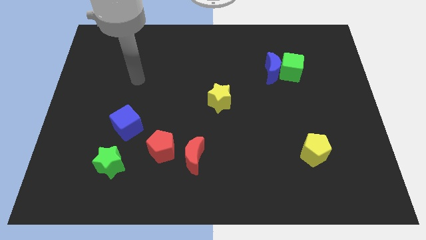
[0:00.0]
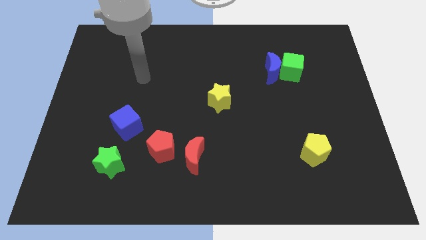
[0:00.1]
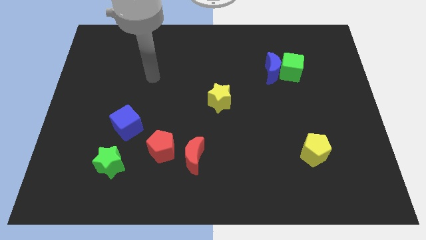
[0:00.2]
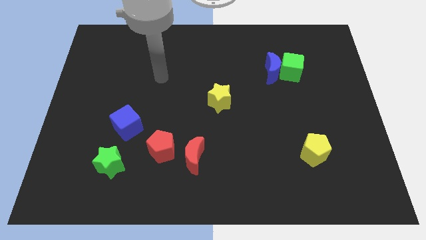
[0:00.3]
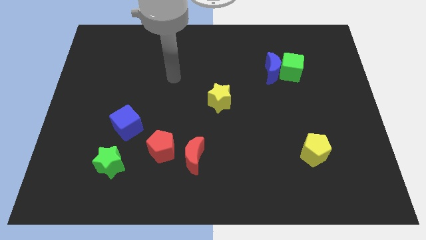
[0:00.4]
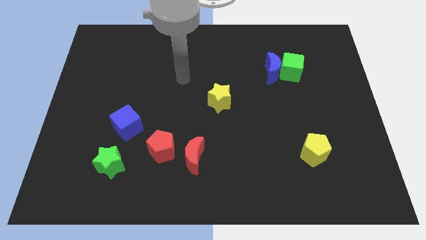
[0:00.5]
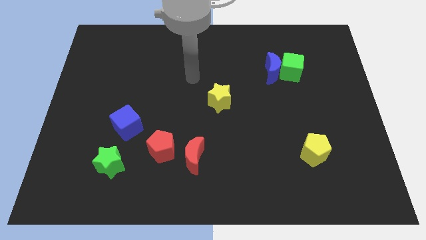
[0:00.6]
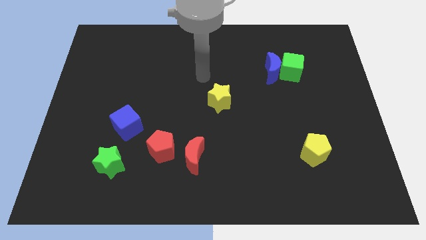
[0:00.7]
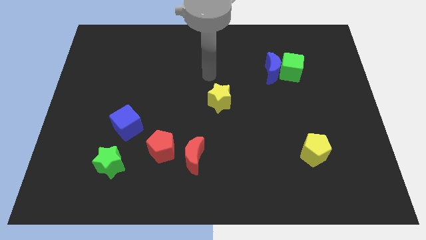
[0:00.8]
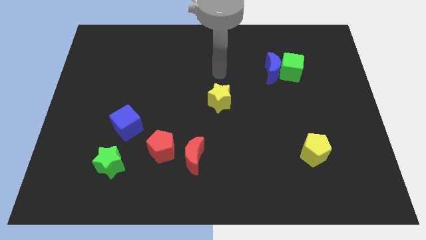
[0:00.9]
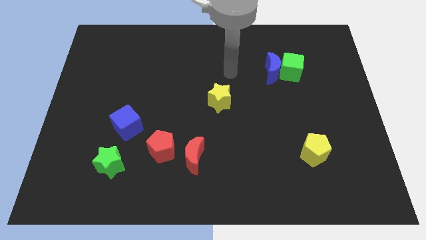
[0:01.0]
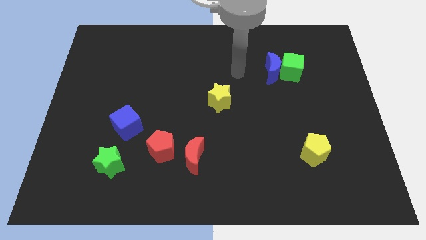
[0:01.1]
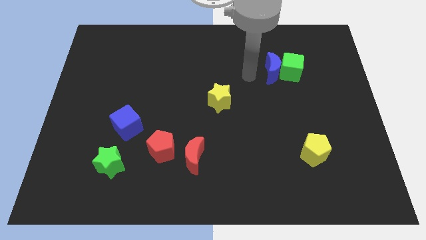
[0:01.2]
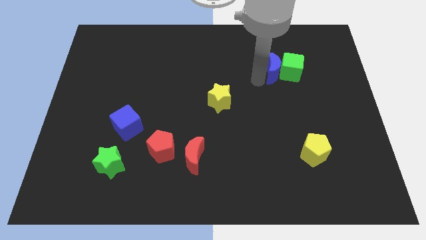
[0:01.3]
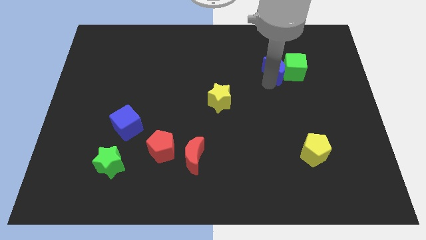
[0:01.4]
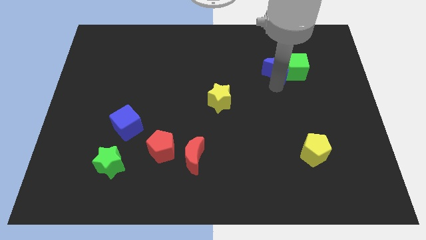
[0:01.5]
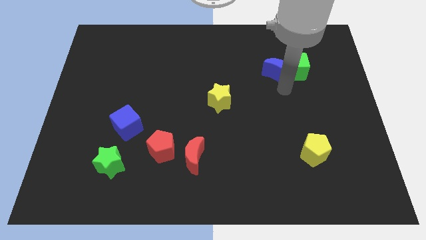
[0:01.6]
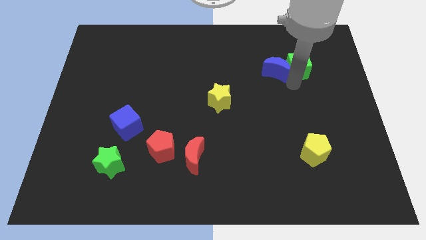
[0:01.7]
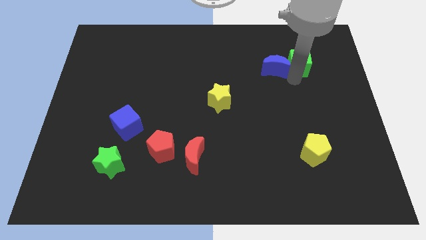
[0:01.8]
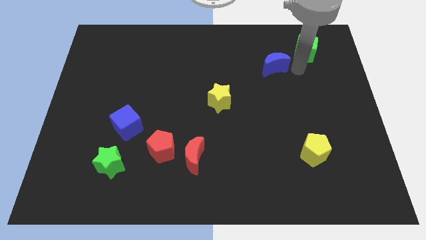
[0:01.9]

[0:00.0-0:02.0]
pull the blue moon apart from the green cube

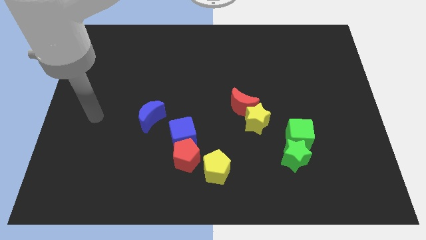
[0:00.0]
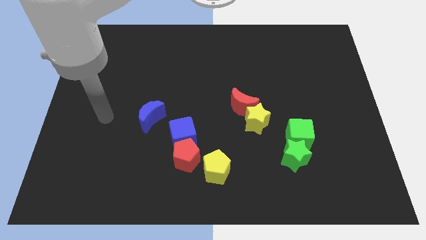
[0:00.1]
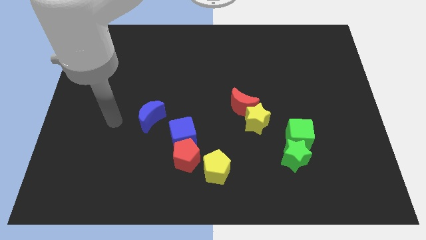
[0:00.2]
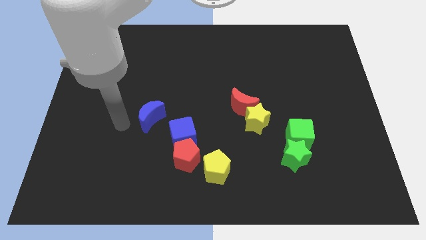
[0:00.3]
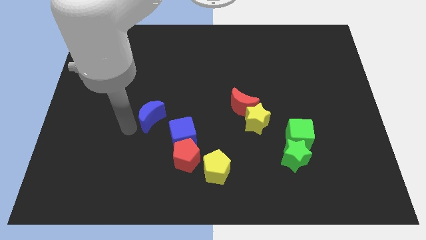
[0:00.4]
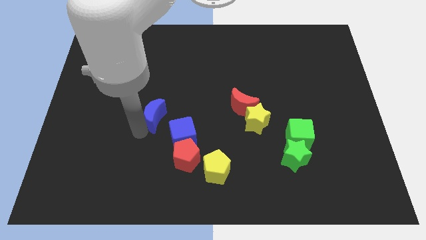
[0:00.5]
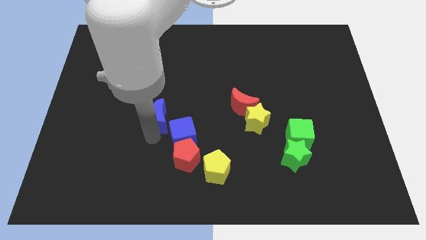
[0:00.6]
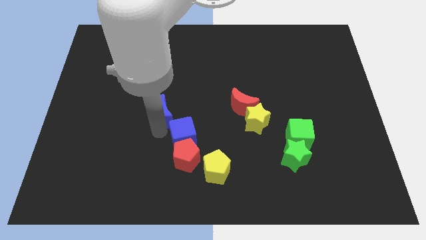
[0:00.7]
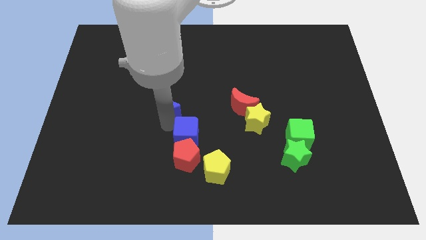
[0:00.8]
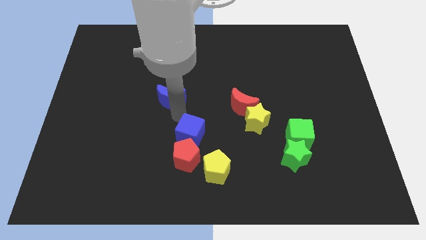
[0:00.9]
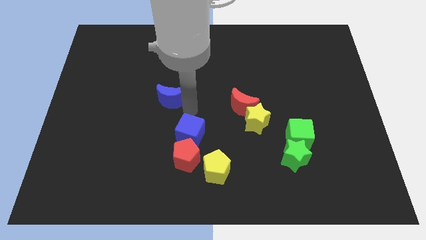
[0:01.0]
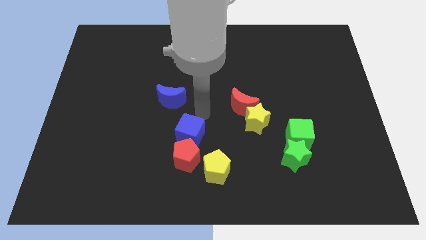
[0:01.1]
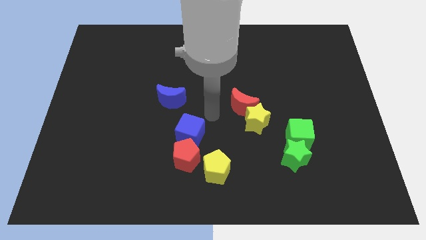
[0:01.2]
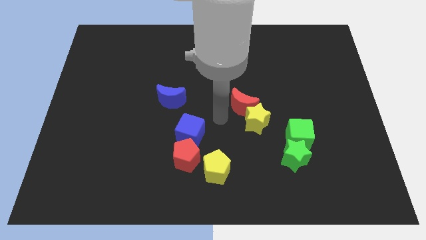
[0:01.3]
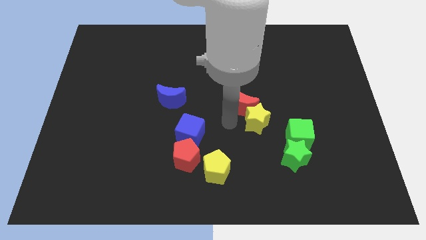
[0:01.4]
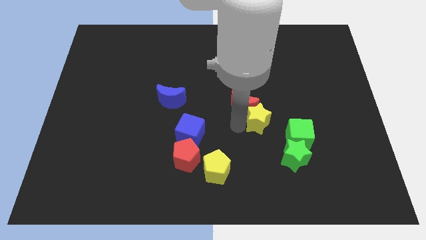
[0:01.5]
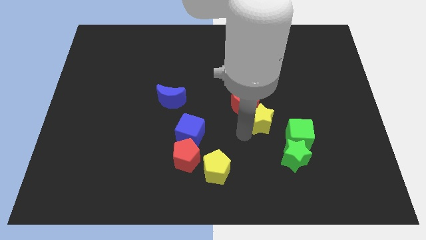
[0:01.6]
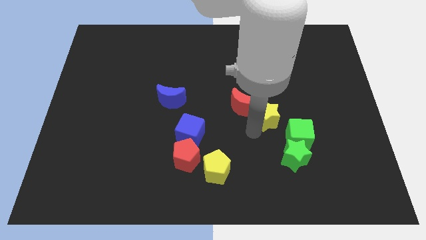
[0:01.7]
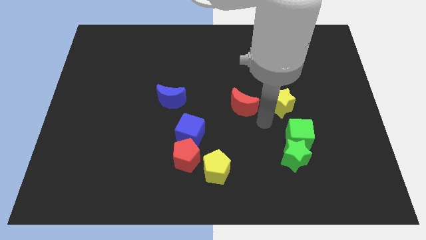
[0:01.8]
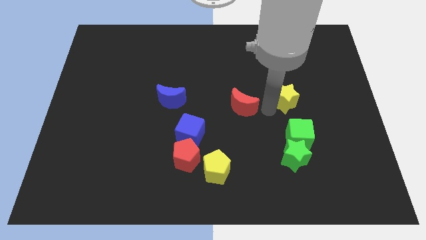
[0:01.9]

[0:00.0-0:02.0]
pull the red moon apart from the yellow star

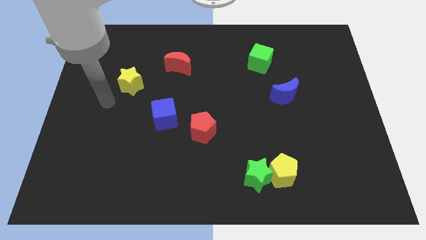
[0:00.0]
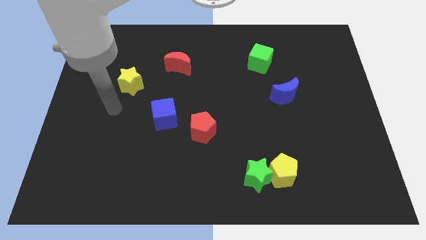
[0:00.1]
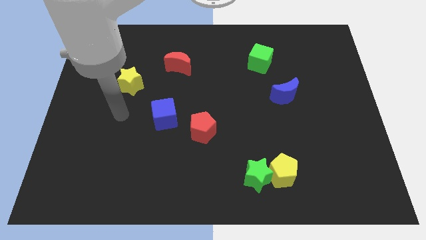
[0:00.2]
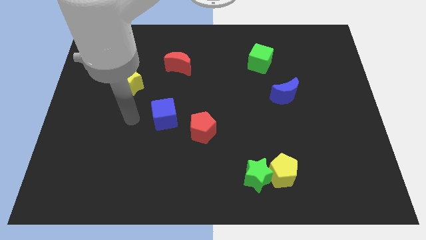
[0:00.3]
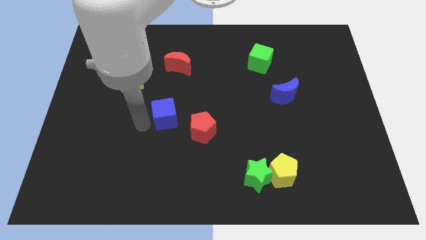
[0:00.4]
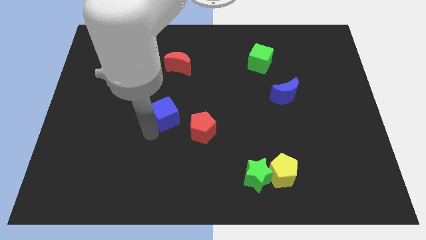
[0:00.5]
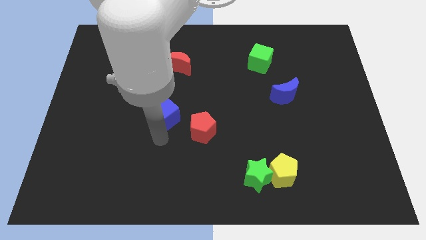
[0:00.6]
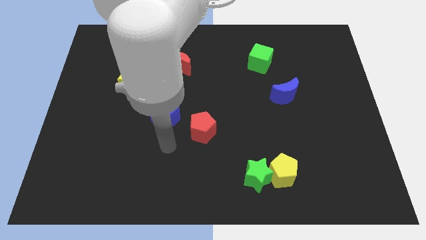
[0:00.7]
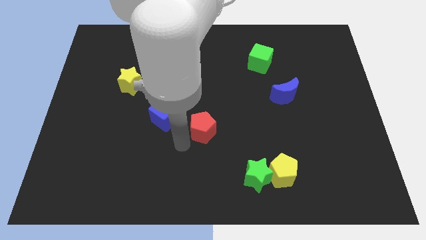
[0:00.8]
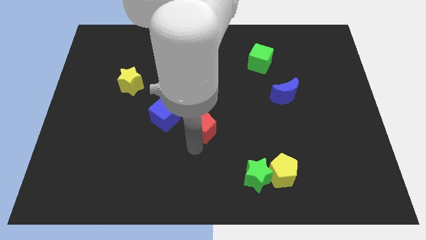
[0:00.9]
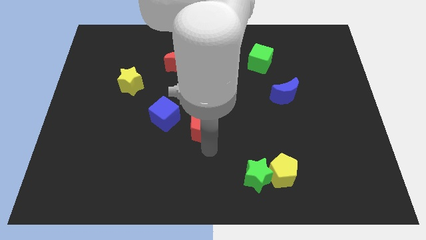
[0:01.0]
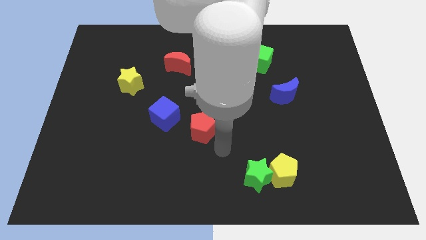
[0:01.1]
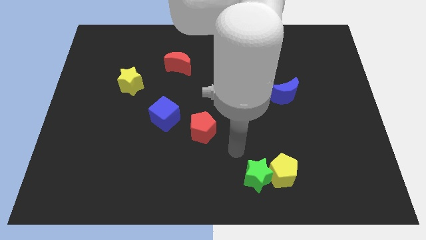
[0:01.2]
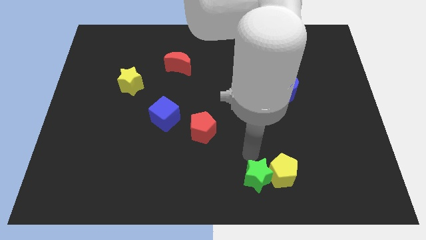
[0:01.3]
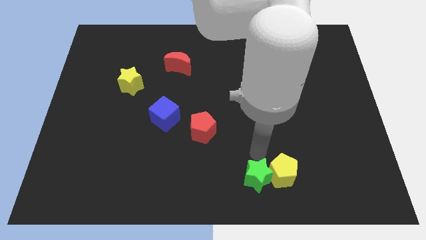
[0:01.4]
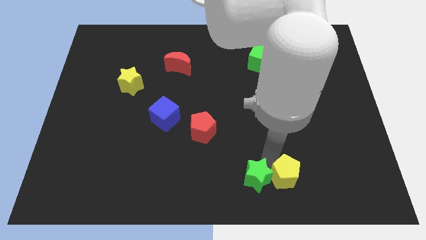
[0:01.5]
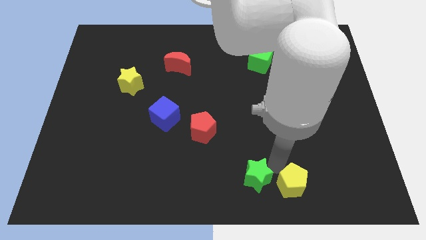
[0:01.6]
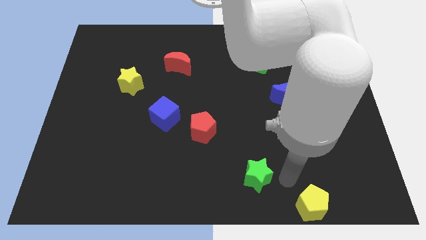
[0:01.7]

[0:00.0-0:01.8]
move the green star away from the yellow pentagon

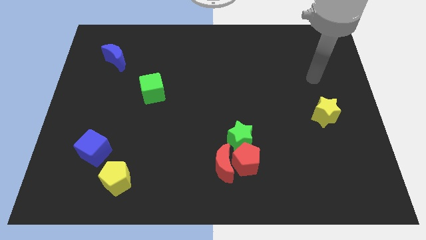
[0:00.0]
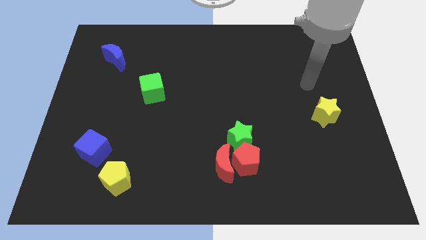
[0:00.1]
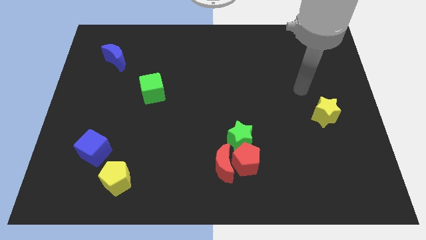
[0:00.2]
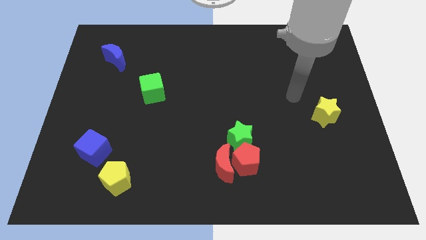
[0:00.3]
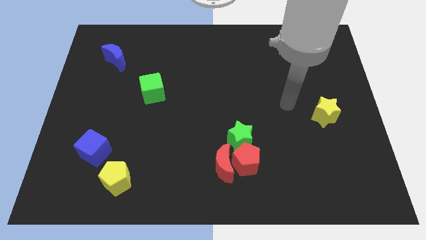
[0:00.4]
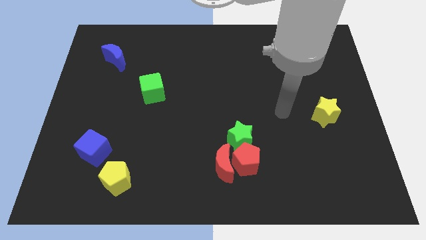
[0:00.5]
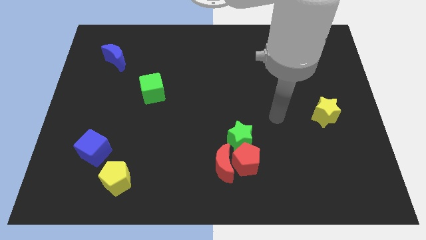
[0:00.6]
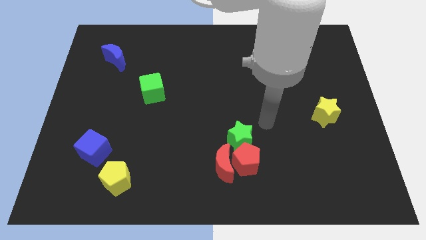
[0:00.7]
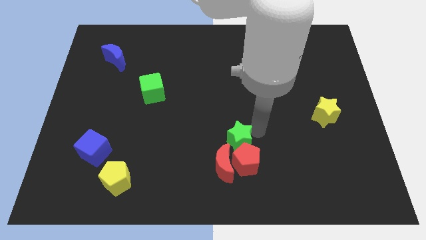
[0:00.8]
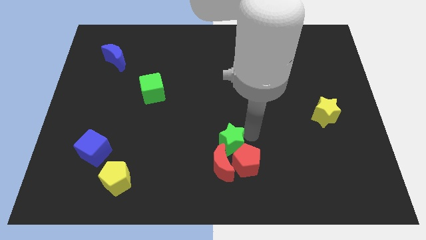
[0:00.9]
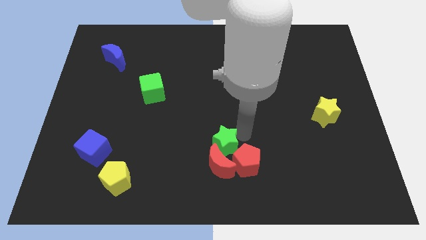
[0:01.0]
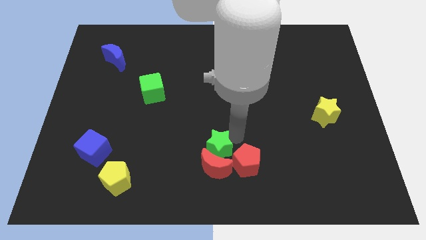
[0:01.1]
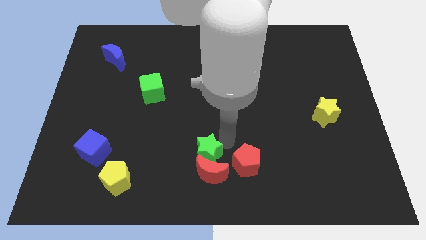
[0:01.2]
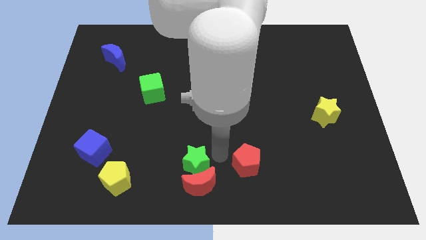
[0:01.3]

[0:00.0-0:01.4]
separate the red pentagon from the red moon and green star

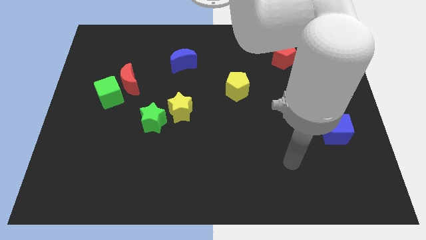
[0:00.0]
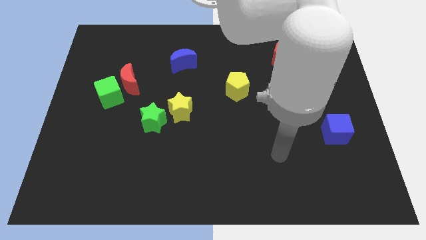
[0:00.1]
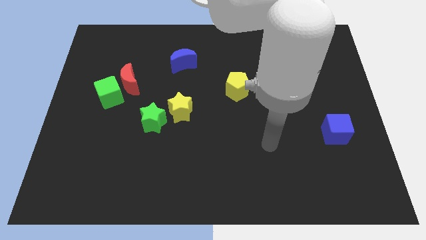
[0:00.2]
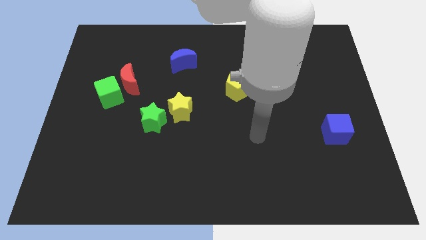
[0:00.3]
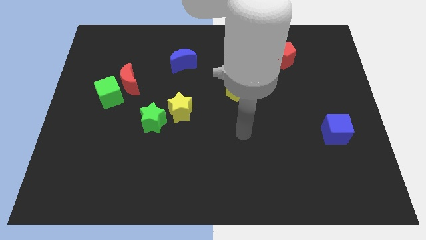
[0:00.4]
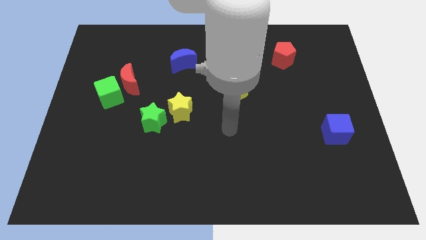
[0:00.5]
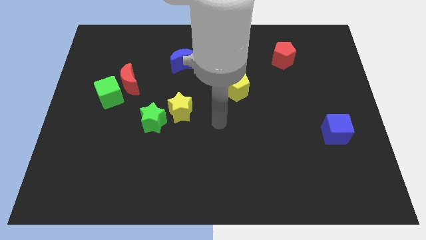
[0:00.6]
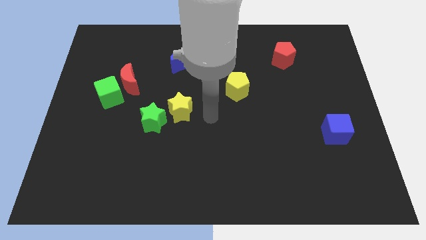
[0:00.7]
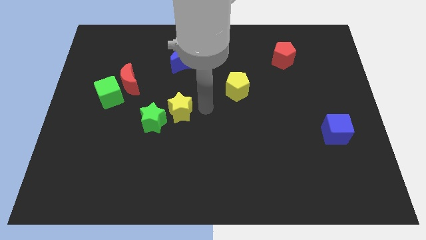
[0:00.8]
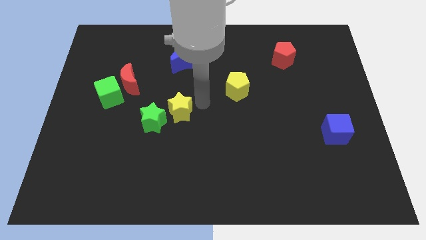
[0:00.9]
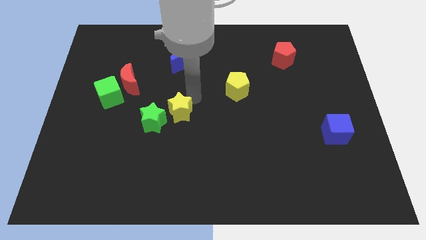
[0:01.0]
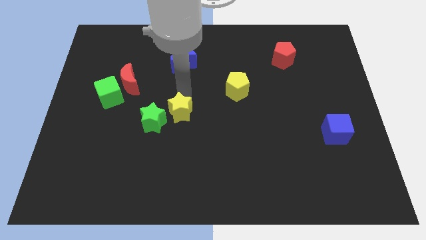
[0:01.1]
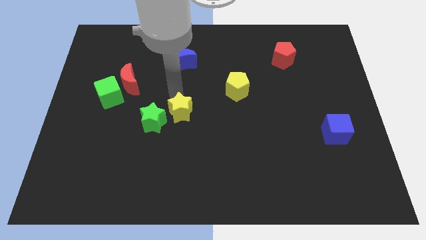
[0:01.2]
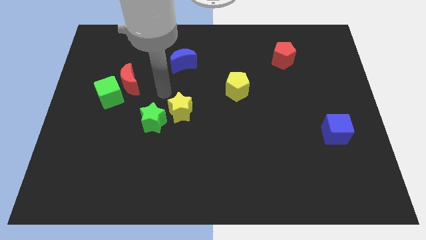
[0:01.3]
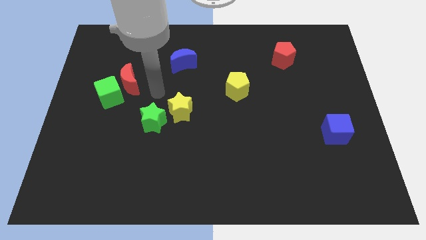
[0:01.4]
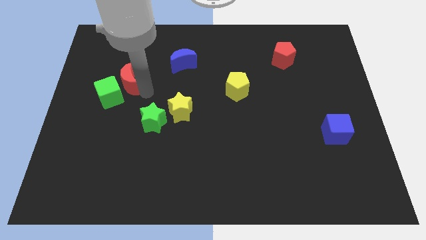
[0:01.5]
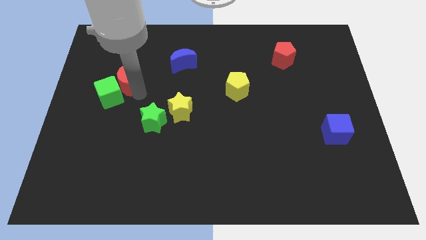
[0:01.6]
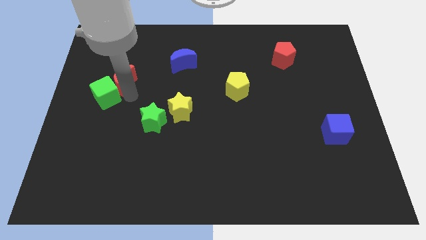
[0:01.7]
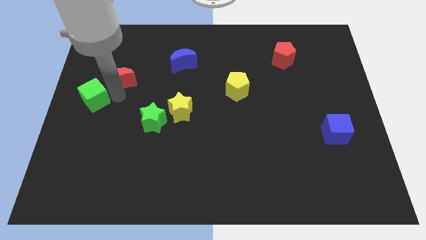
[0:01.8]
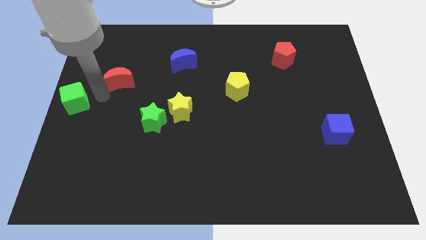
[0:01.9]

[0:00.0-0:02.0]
separate the red moon from the green cube

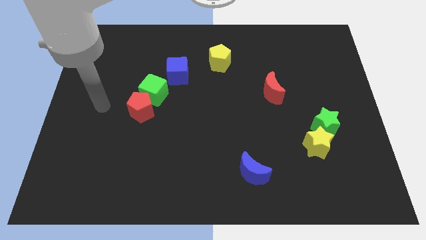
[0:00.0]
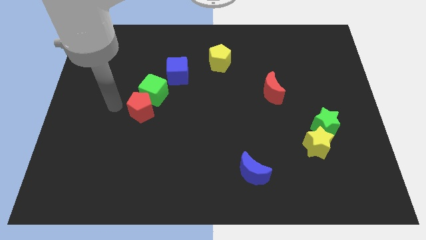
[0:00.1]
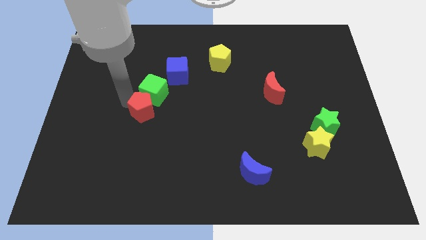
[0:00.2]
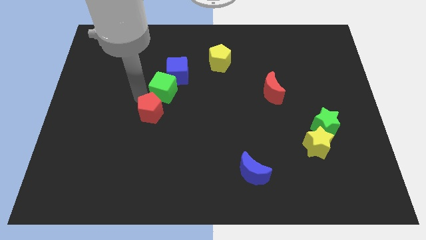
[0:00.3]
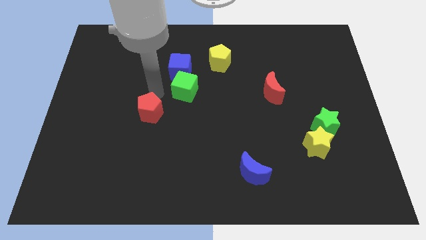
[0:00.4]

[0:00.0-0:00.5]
move the red pentagon away from the green cube
